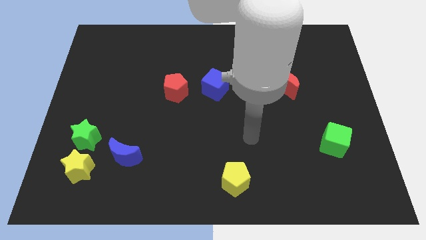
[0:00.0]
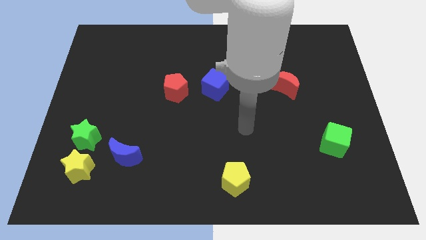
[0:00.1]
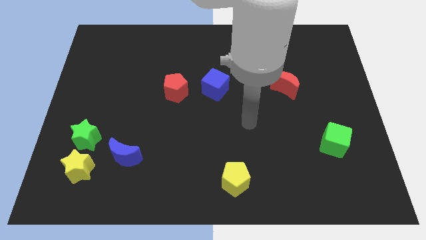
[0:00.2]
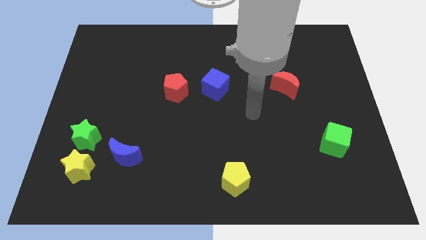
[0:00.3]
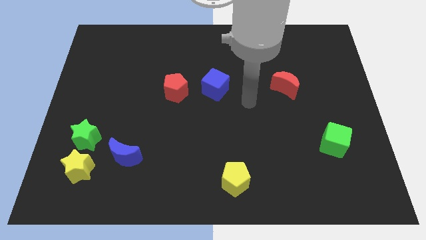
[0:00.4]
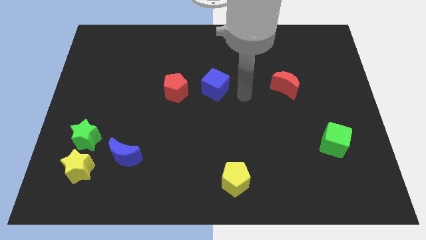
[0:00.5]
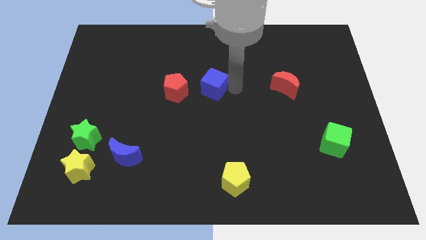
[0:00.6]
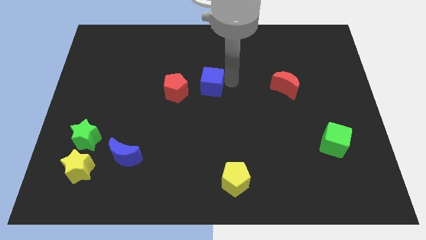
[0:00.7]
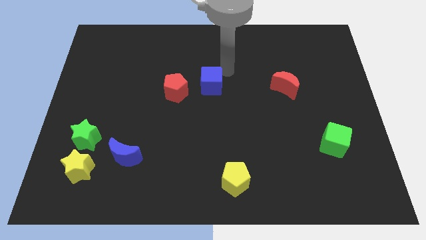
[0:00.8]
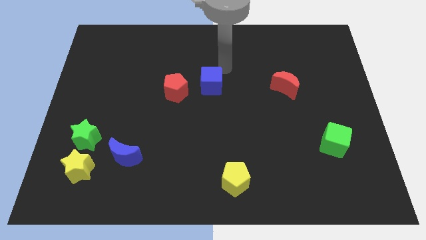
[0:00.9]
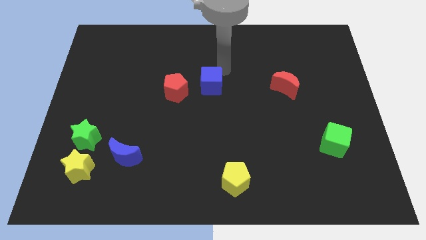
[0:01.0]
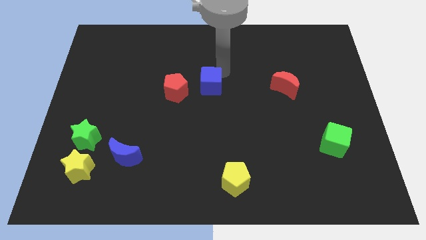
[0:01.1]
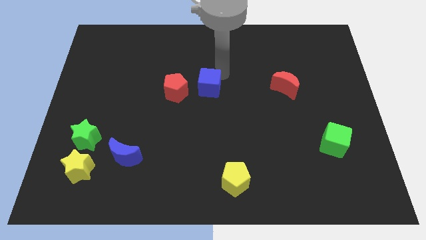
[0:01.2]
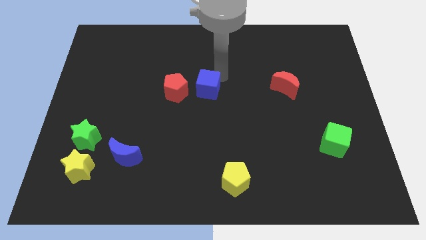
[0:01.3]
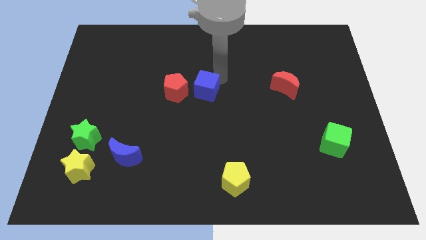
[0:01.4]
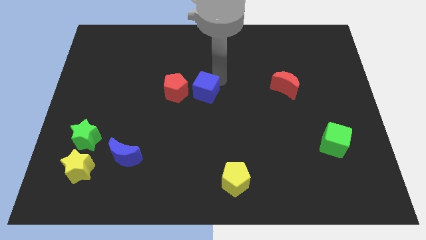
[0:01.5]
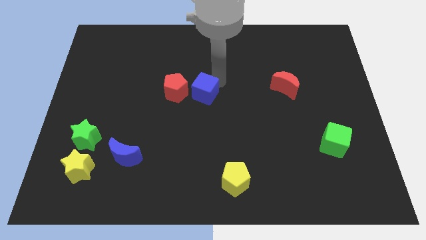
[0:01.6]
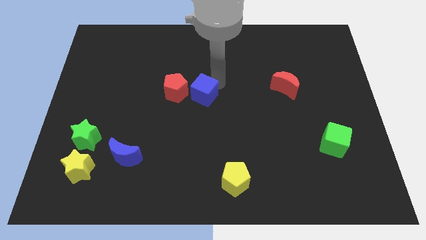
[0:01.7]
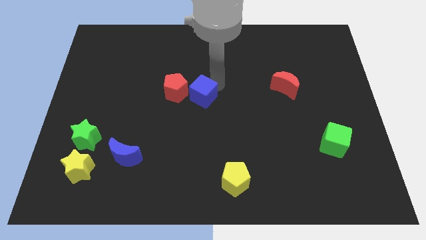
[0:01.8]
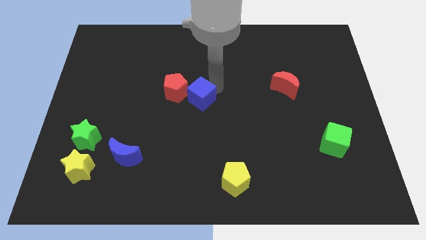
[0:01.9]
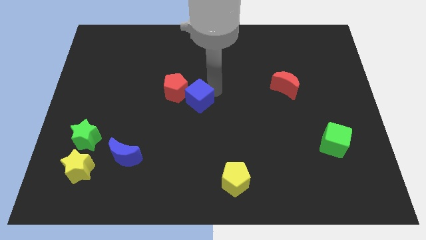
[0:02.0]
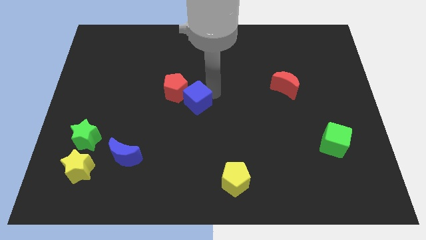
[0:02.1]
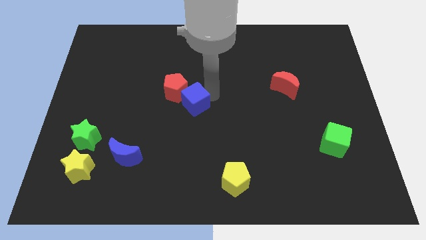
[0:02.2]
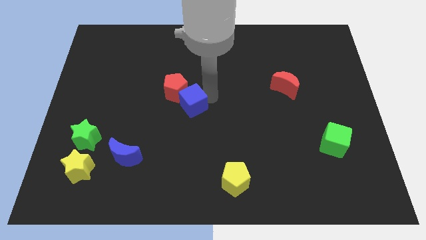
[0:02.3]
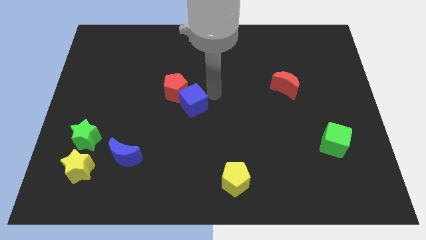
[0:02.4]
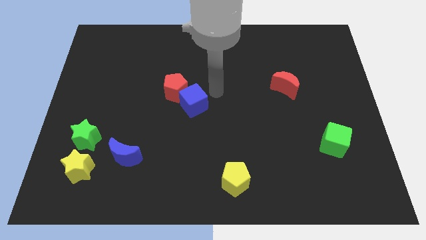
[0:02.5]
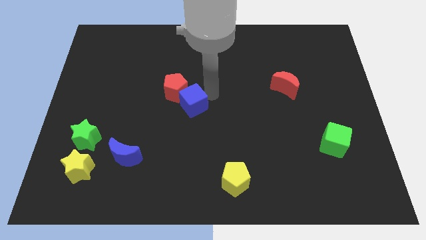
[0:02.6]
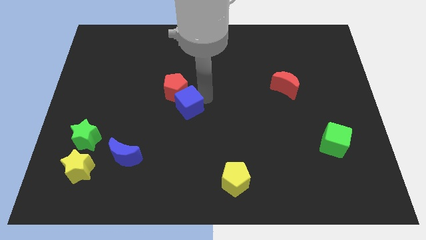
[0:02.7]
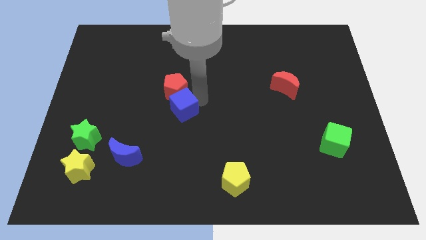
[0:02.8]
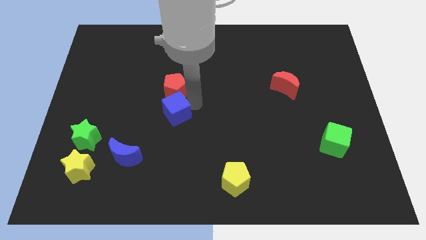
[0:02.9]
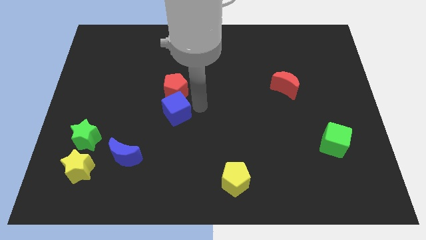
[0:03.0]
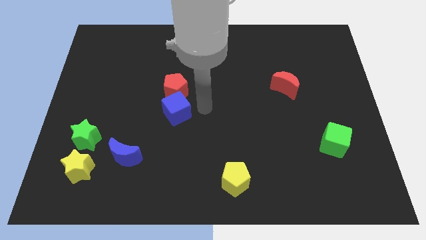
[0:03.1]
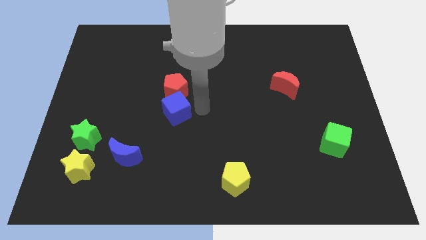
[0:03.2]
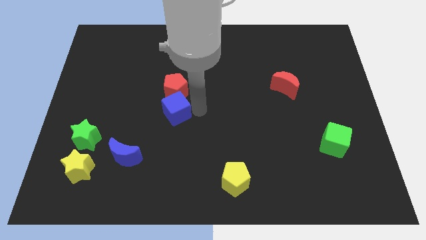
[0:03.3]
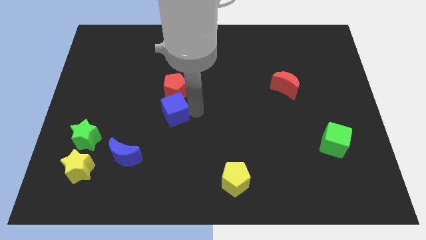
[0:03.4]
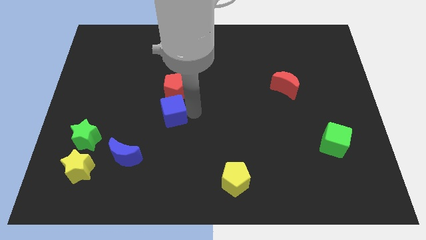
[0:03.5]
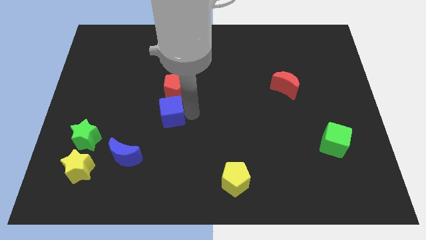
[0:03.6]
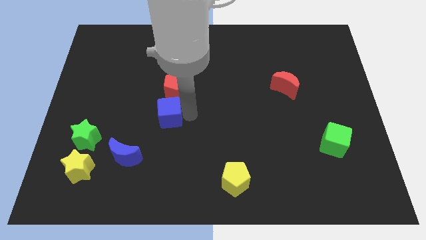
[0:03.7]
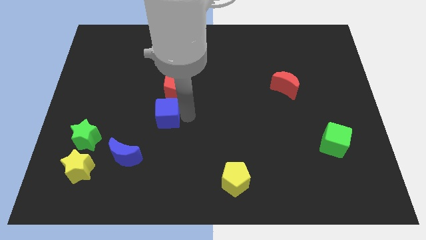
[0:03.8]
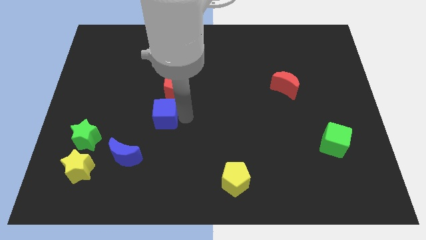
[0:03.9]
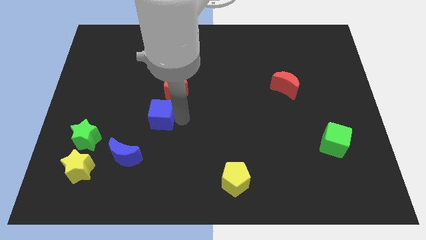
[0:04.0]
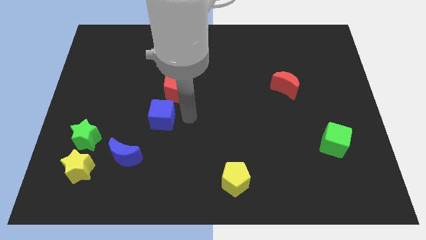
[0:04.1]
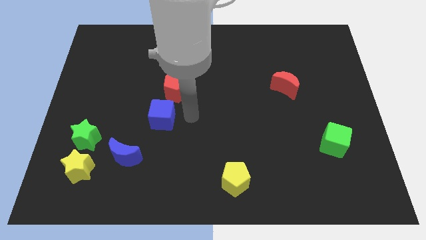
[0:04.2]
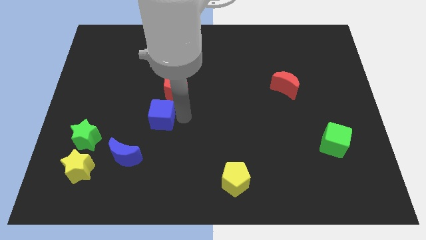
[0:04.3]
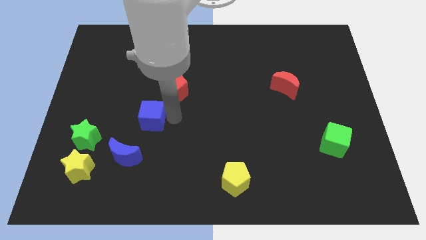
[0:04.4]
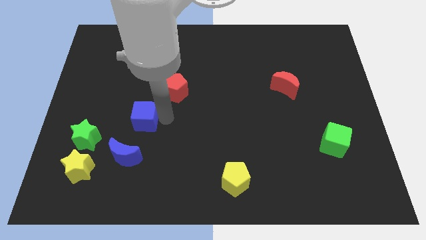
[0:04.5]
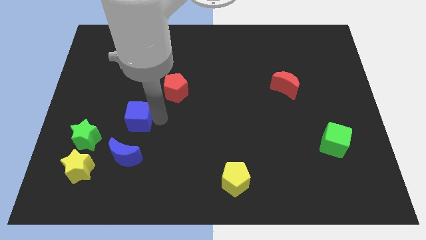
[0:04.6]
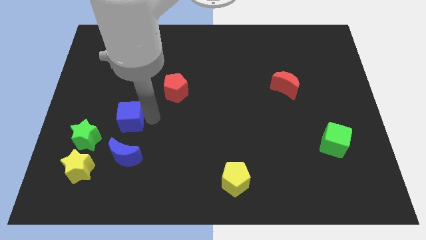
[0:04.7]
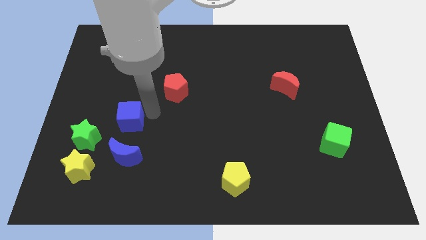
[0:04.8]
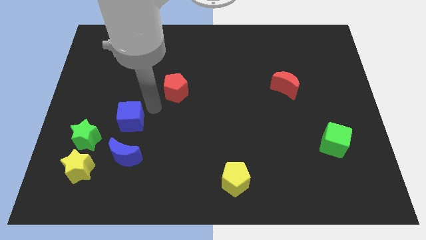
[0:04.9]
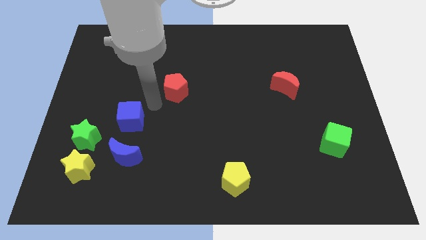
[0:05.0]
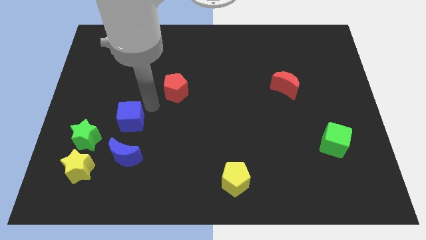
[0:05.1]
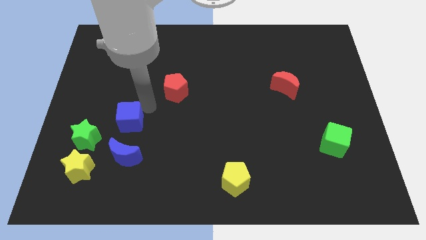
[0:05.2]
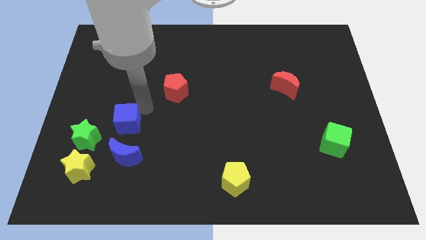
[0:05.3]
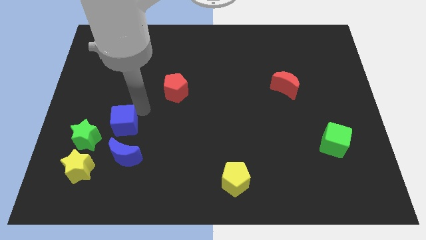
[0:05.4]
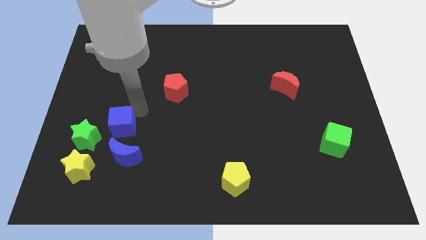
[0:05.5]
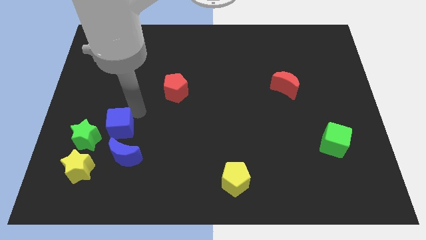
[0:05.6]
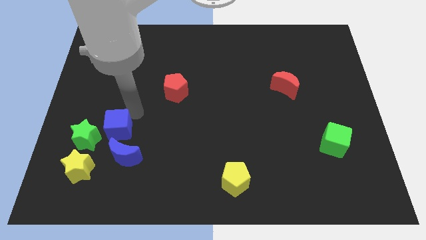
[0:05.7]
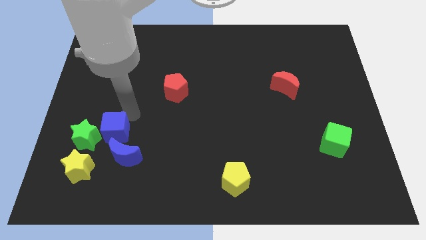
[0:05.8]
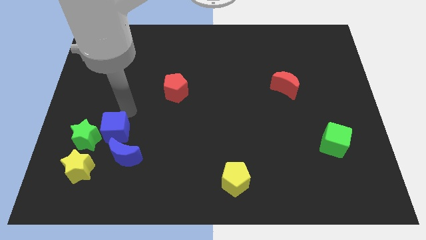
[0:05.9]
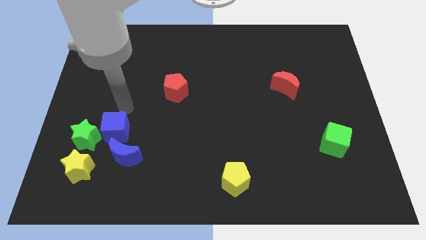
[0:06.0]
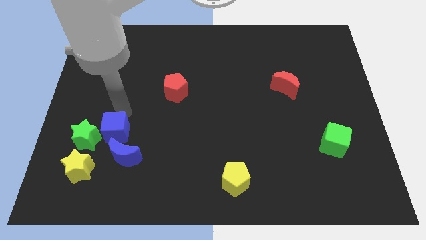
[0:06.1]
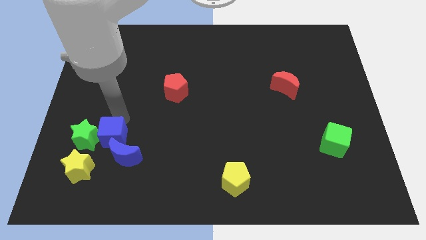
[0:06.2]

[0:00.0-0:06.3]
move the blue cube to the bottom right side of the green star

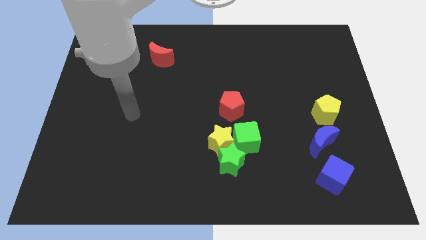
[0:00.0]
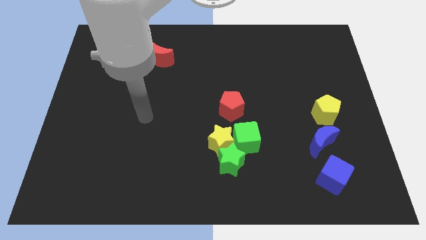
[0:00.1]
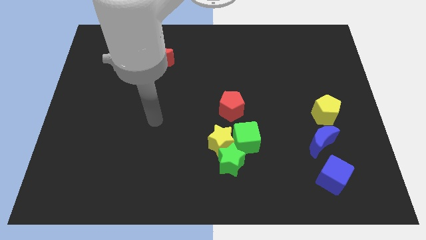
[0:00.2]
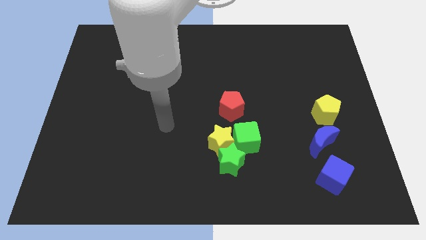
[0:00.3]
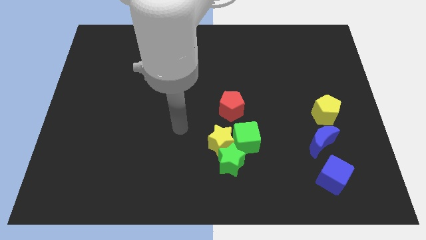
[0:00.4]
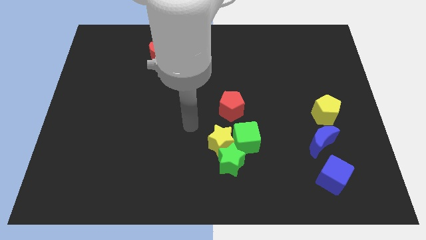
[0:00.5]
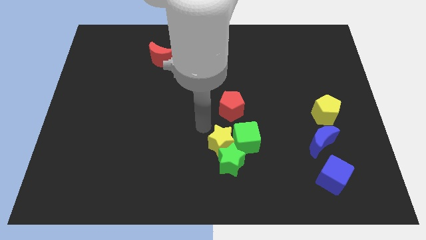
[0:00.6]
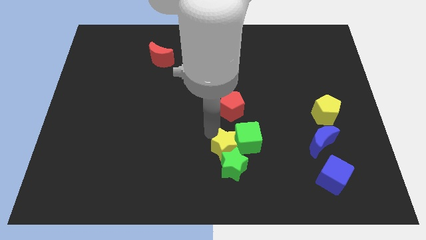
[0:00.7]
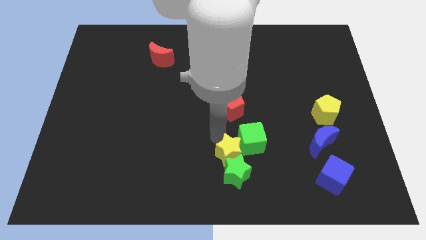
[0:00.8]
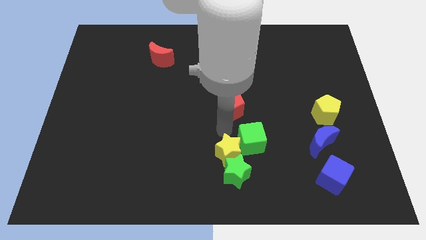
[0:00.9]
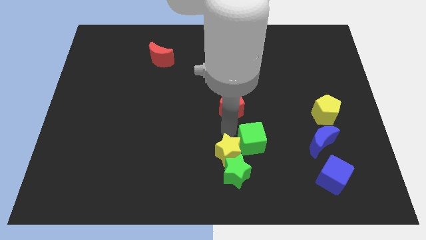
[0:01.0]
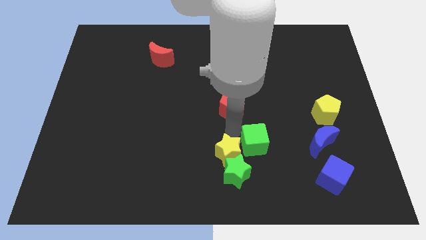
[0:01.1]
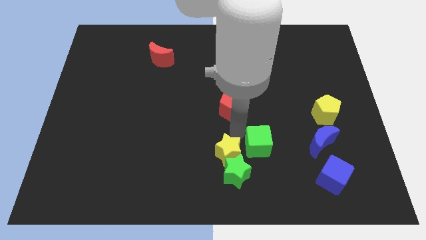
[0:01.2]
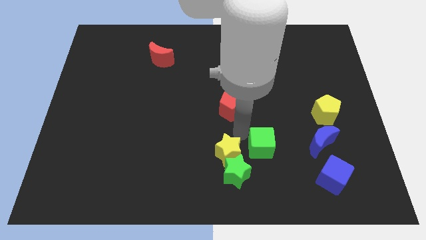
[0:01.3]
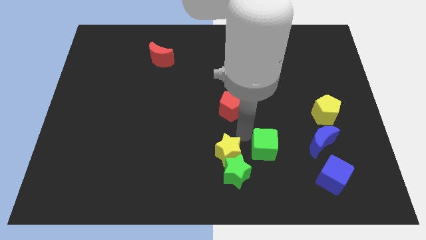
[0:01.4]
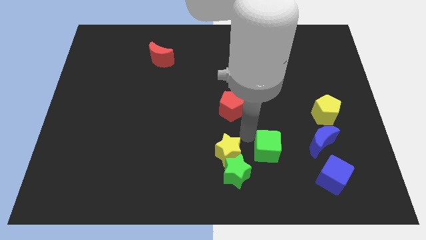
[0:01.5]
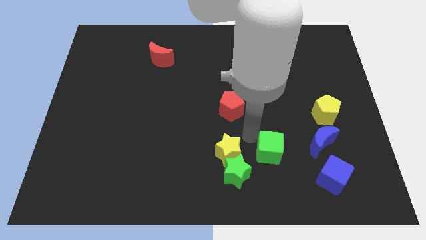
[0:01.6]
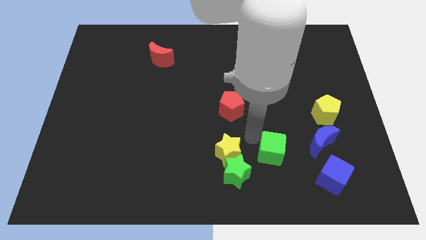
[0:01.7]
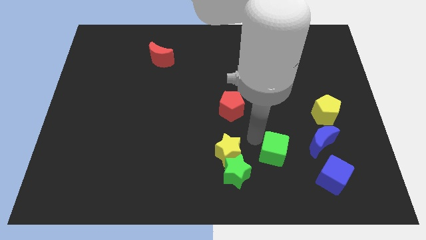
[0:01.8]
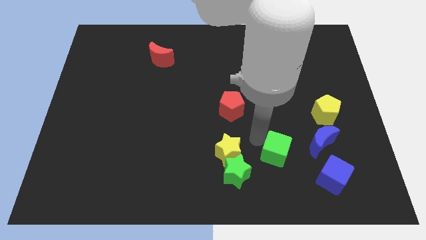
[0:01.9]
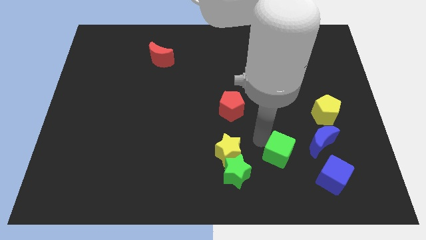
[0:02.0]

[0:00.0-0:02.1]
push the green cube to the top left side of the blue cube
